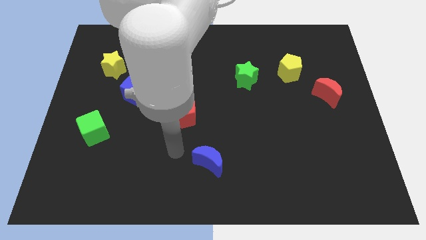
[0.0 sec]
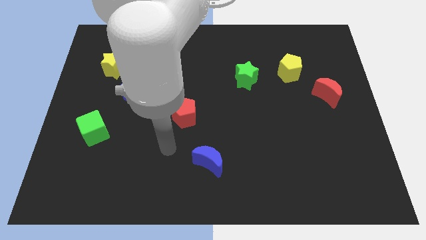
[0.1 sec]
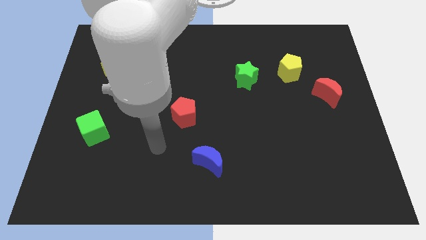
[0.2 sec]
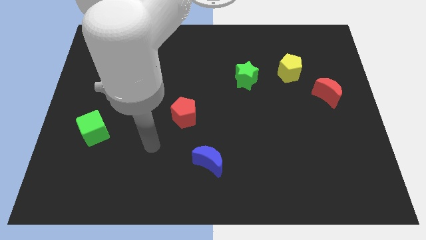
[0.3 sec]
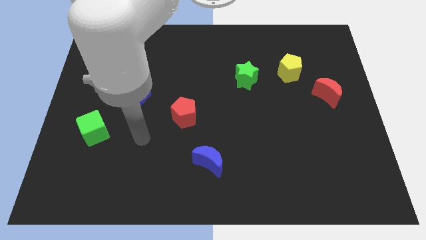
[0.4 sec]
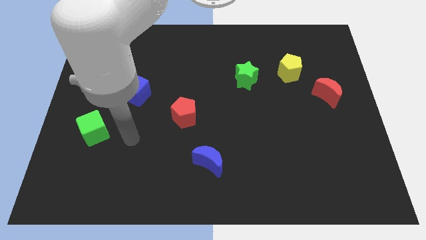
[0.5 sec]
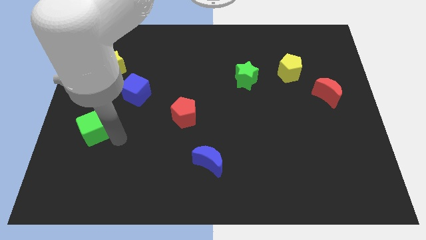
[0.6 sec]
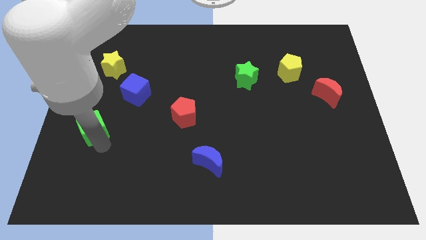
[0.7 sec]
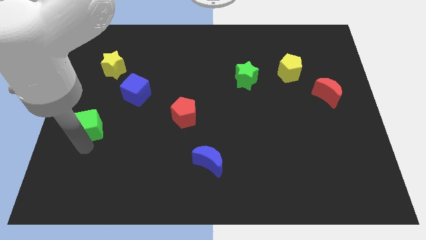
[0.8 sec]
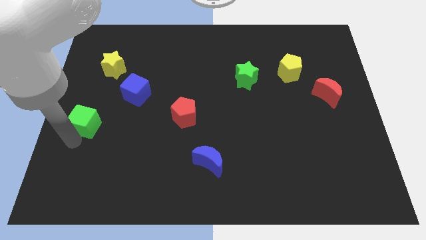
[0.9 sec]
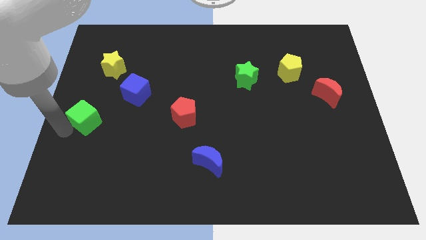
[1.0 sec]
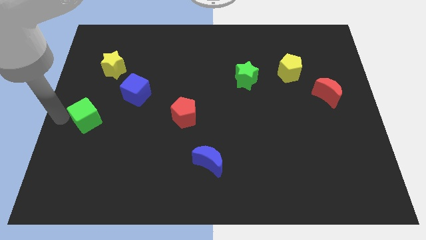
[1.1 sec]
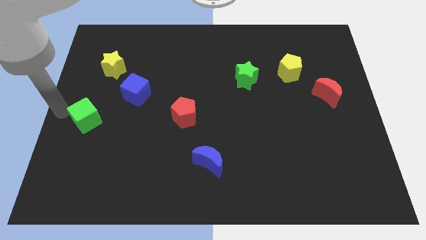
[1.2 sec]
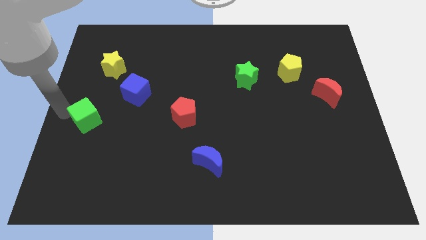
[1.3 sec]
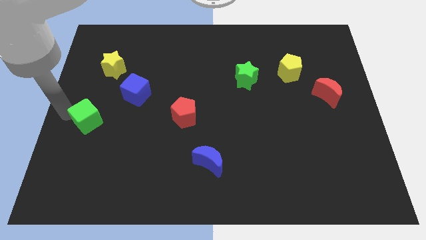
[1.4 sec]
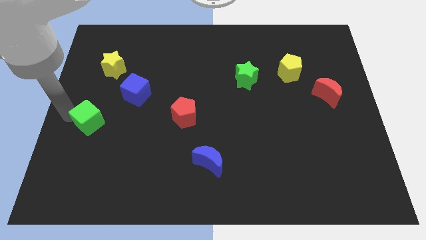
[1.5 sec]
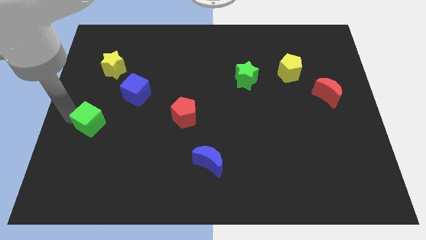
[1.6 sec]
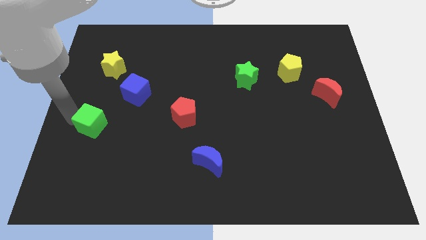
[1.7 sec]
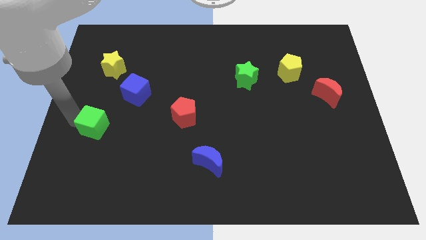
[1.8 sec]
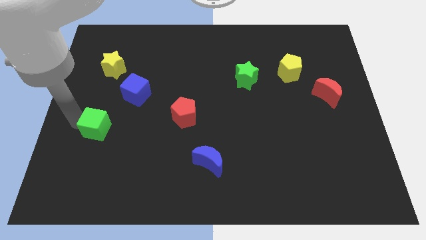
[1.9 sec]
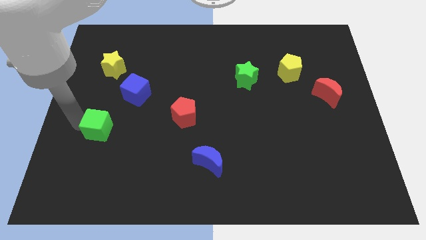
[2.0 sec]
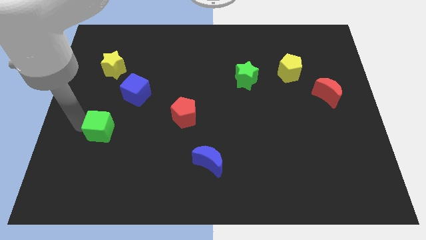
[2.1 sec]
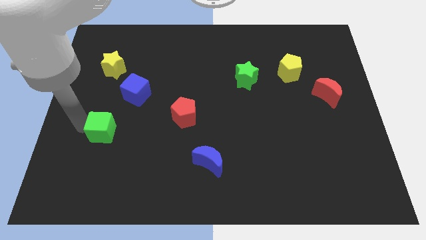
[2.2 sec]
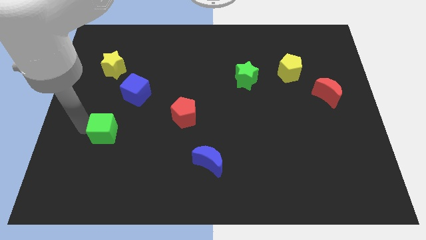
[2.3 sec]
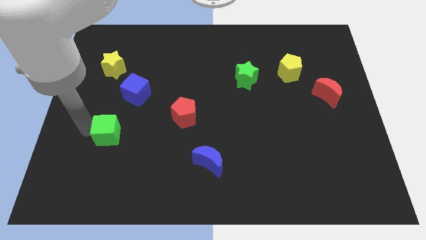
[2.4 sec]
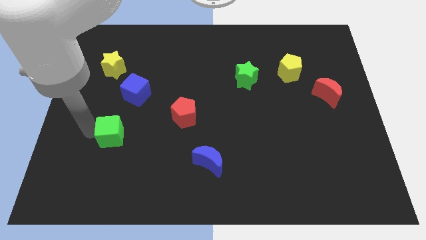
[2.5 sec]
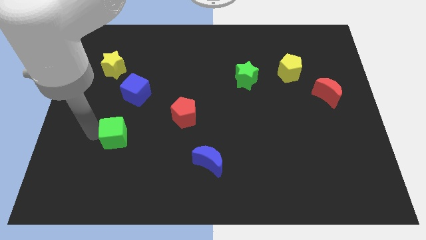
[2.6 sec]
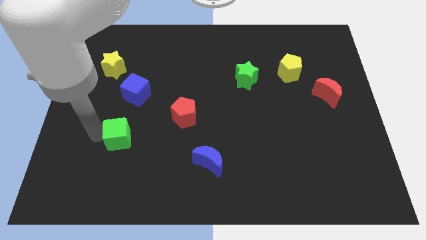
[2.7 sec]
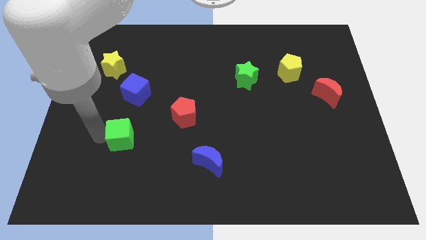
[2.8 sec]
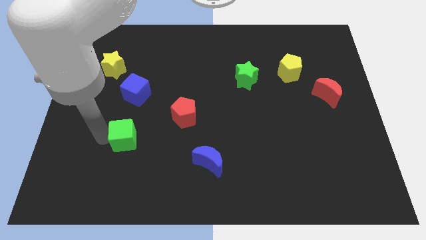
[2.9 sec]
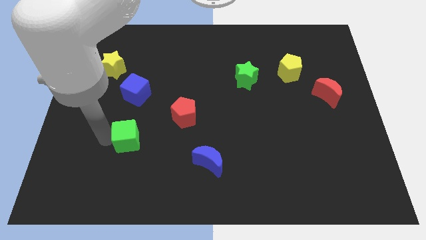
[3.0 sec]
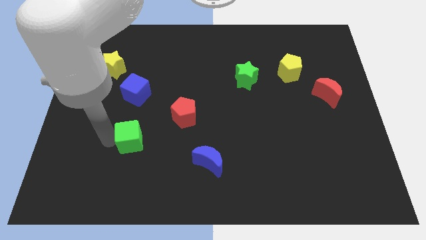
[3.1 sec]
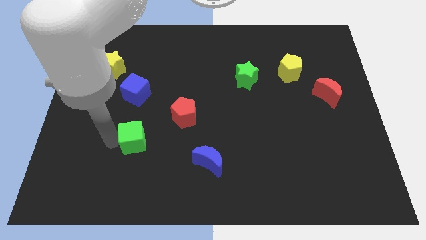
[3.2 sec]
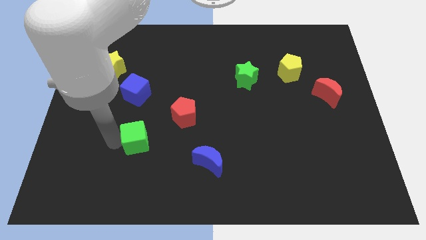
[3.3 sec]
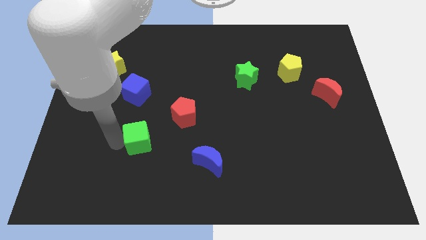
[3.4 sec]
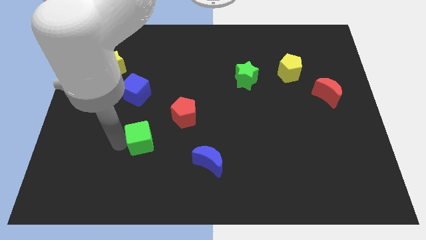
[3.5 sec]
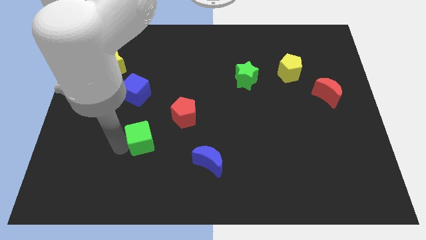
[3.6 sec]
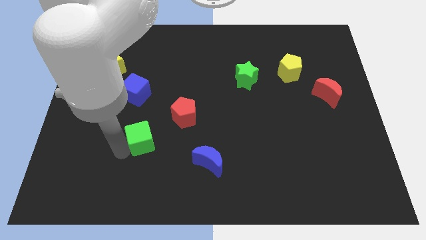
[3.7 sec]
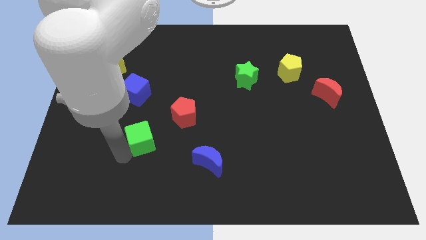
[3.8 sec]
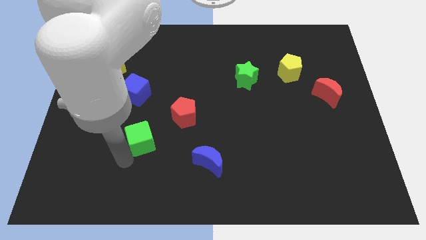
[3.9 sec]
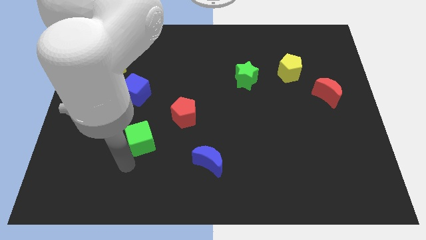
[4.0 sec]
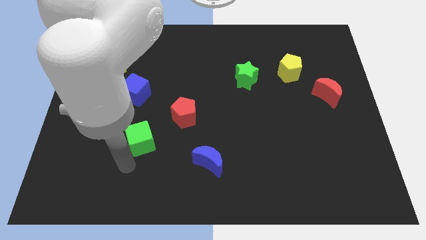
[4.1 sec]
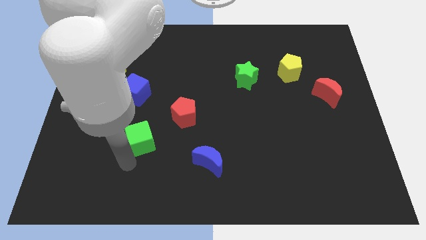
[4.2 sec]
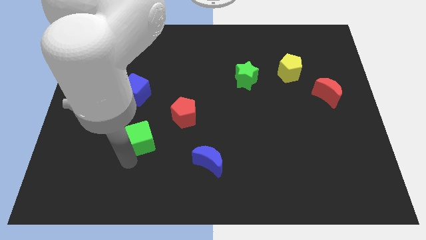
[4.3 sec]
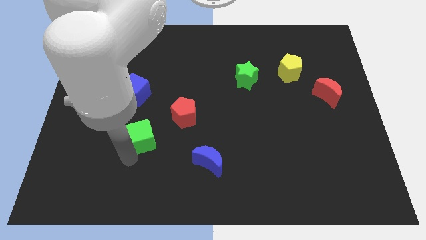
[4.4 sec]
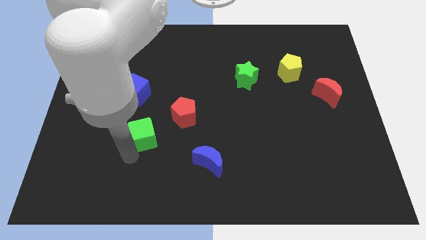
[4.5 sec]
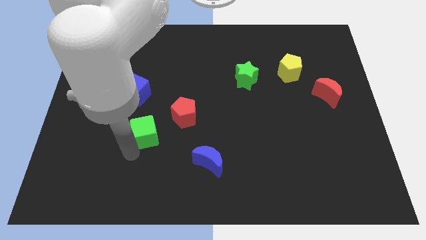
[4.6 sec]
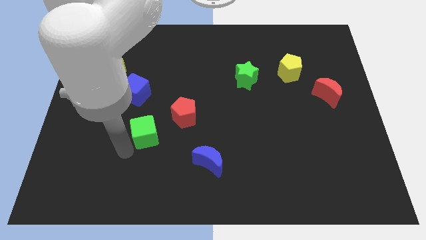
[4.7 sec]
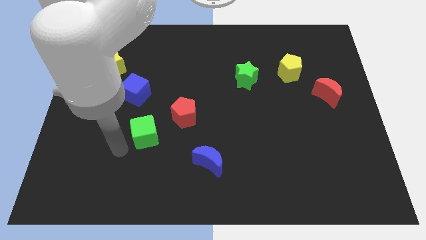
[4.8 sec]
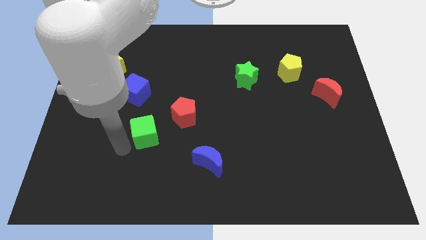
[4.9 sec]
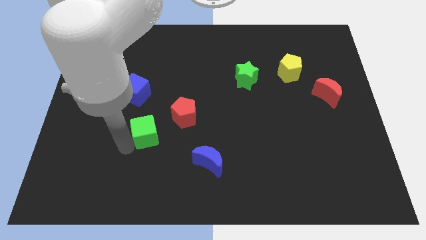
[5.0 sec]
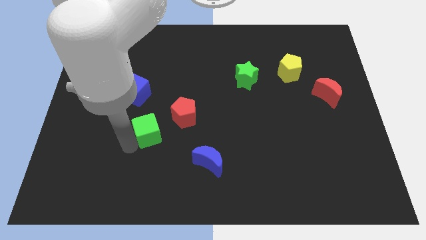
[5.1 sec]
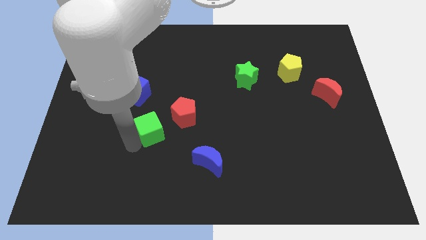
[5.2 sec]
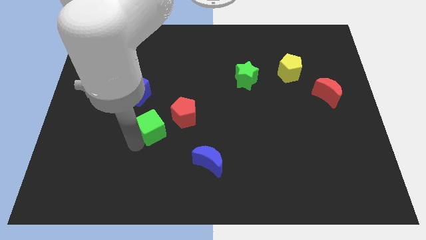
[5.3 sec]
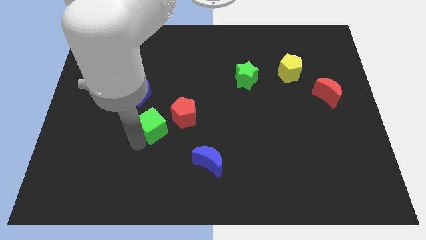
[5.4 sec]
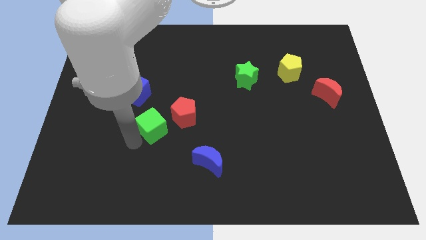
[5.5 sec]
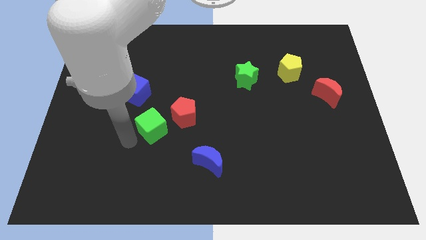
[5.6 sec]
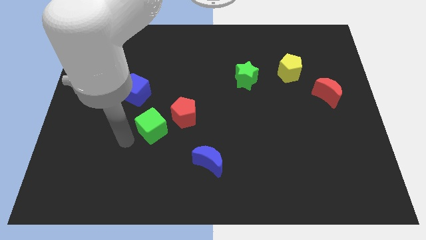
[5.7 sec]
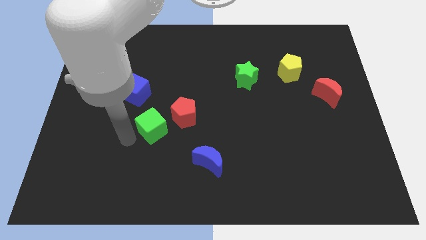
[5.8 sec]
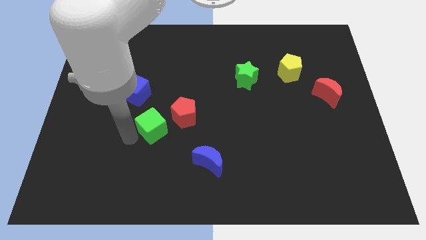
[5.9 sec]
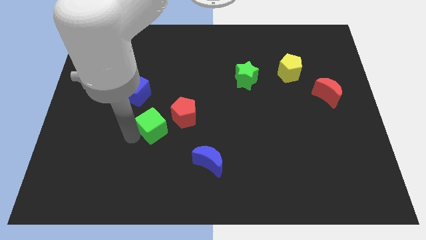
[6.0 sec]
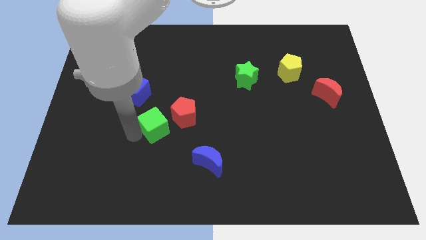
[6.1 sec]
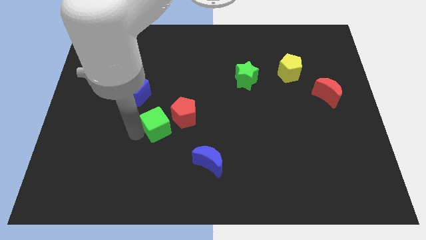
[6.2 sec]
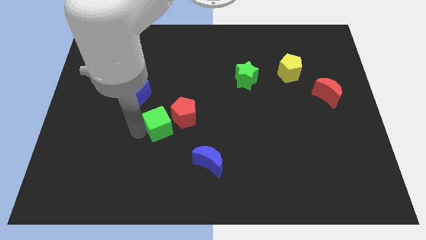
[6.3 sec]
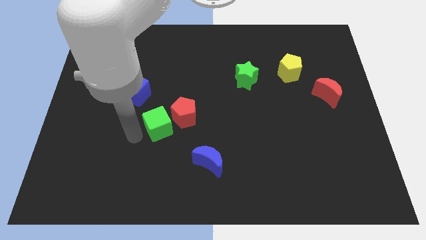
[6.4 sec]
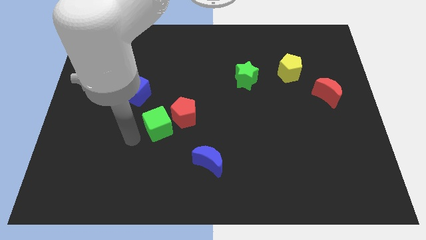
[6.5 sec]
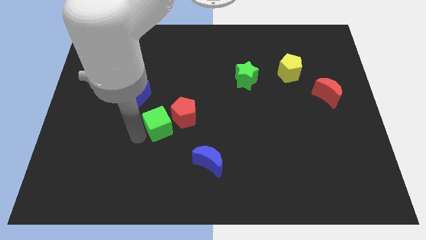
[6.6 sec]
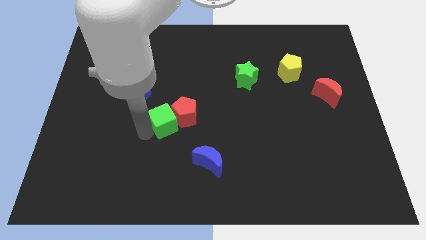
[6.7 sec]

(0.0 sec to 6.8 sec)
move the green cube next to the red pentagon

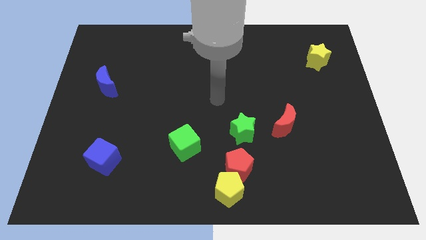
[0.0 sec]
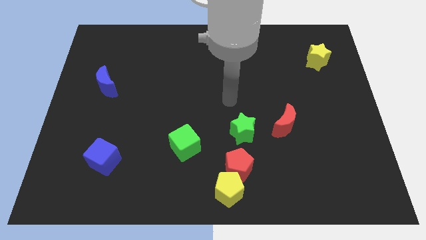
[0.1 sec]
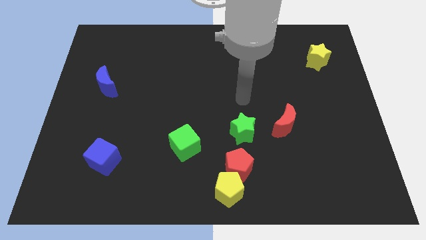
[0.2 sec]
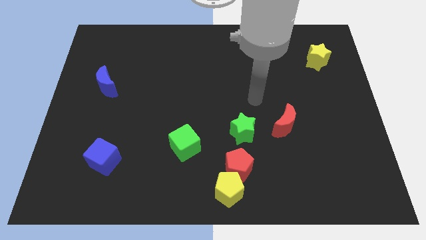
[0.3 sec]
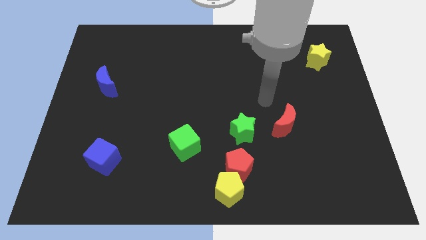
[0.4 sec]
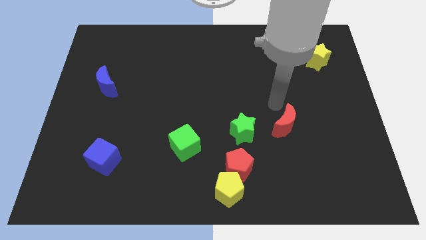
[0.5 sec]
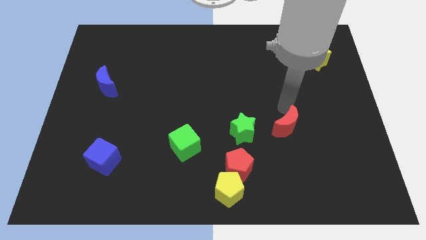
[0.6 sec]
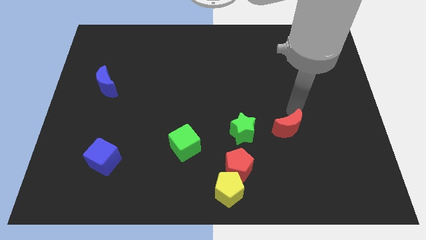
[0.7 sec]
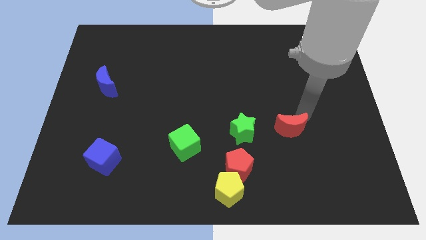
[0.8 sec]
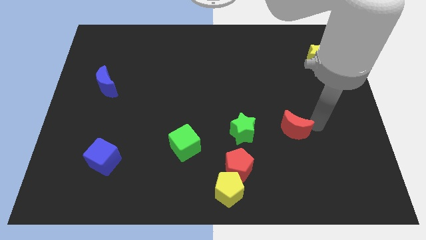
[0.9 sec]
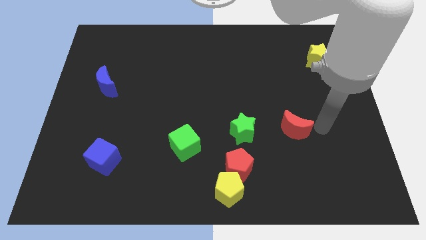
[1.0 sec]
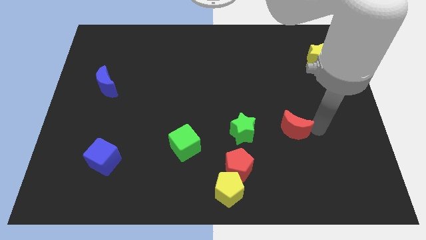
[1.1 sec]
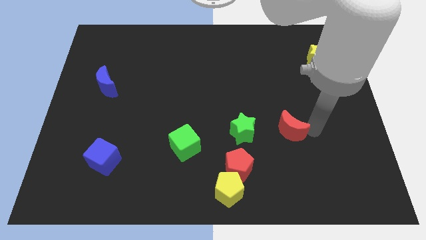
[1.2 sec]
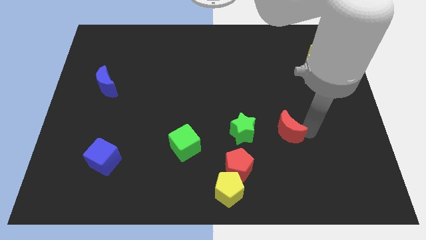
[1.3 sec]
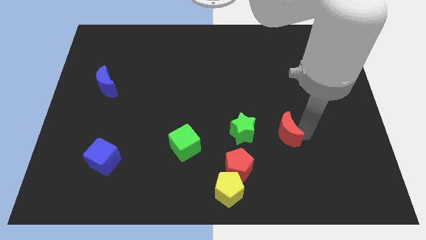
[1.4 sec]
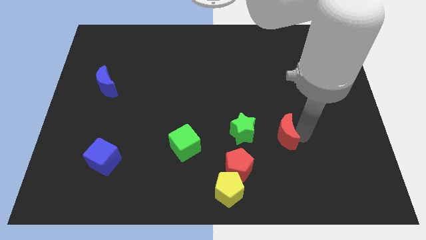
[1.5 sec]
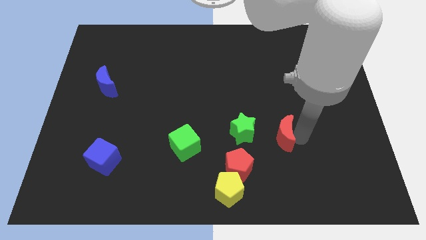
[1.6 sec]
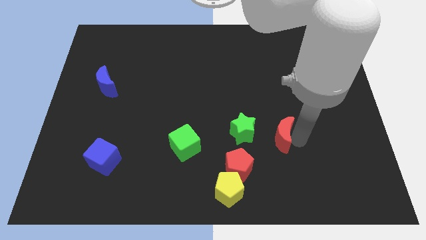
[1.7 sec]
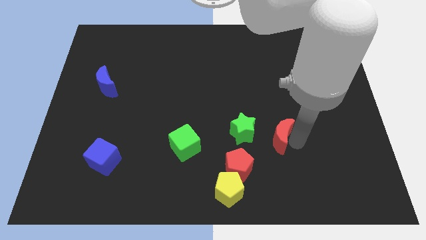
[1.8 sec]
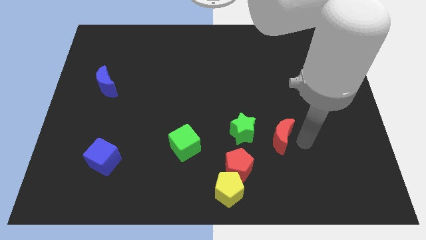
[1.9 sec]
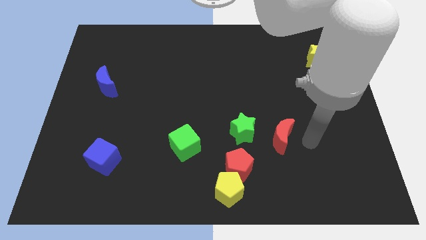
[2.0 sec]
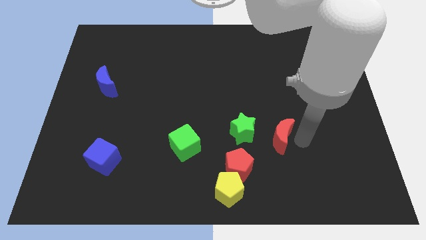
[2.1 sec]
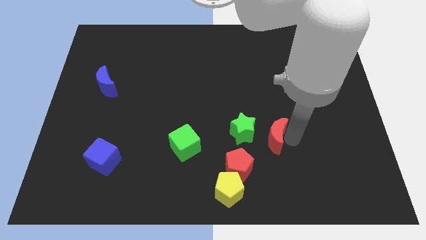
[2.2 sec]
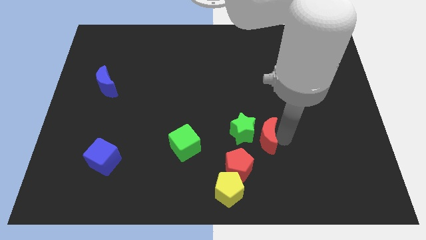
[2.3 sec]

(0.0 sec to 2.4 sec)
slide the red moon close to the green star
